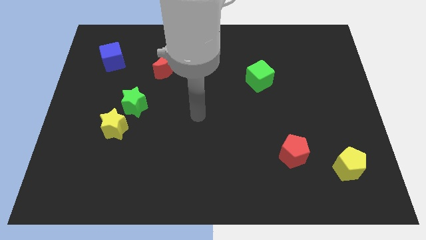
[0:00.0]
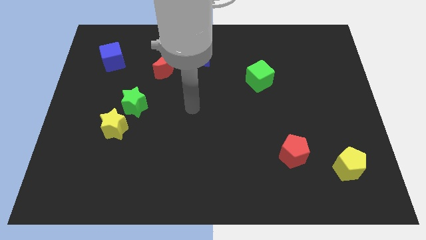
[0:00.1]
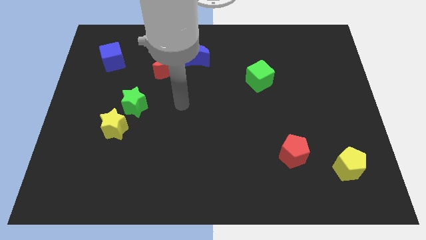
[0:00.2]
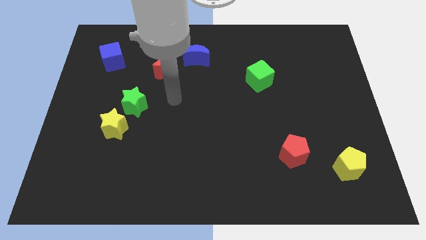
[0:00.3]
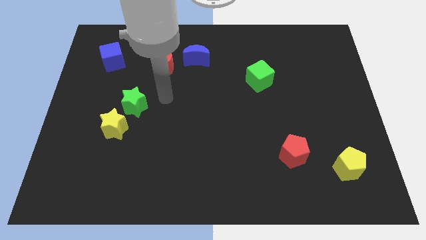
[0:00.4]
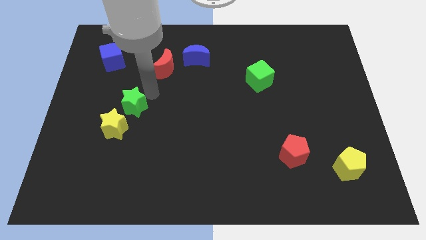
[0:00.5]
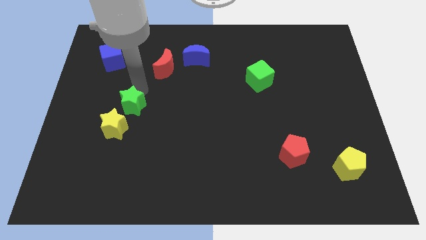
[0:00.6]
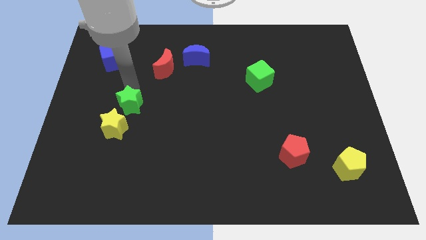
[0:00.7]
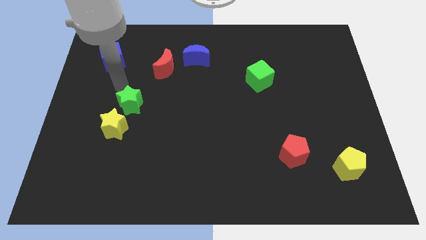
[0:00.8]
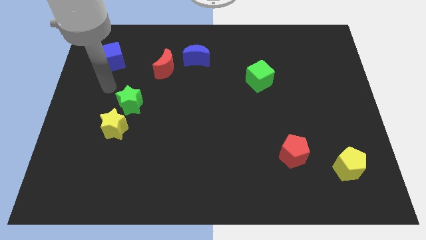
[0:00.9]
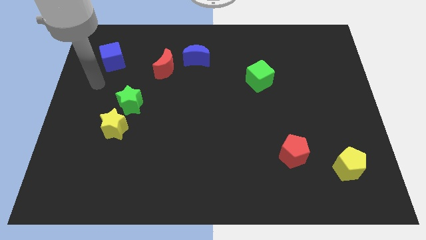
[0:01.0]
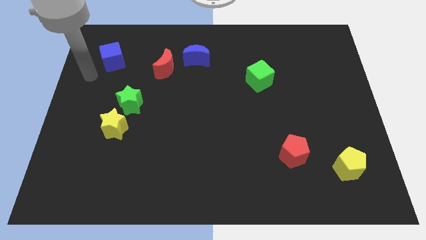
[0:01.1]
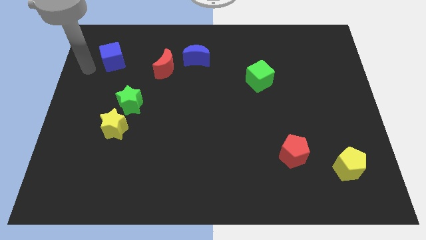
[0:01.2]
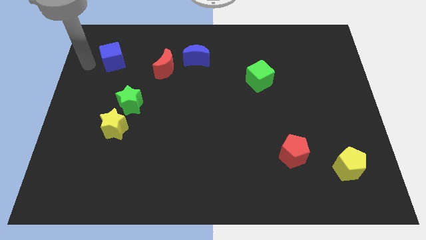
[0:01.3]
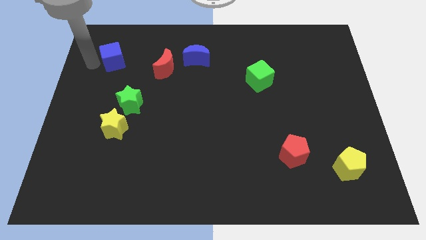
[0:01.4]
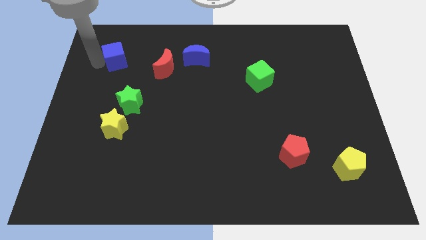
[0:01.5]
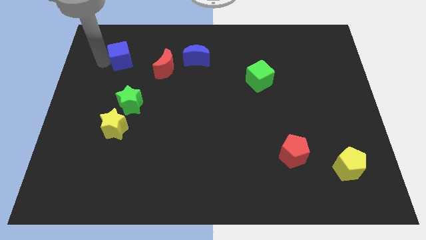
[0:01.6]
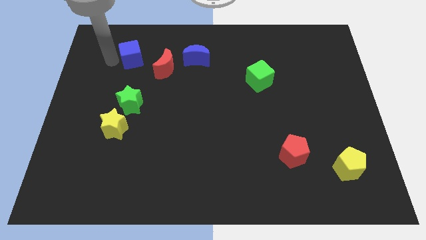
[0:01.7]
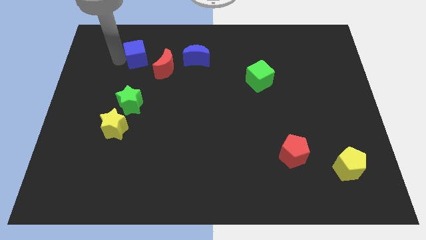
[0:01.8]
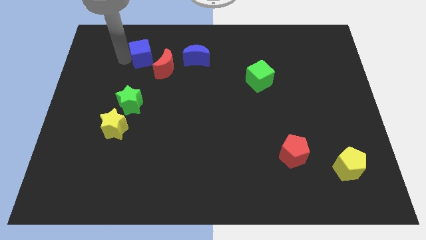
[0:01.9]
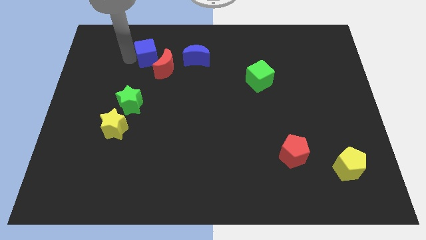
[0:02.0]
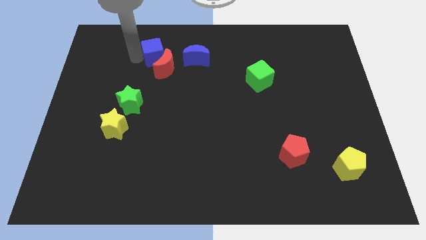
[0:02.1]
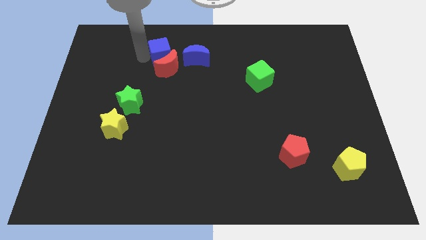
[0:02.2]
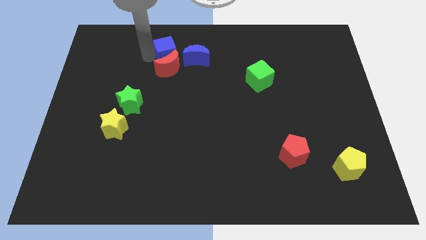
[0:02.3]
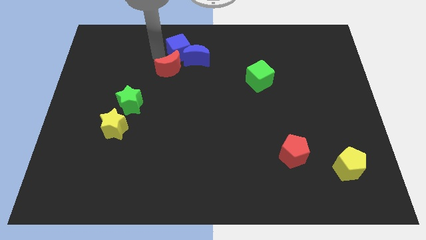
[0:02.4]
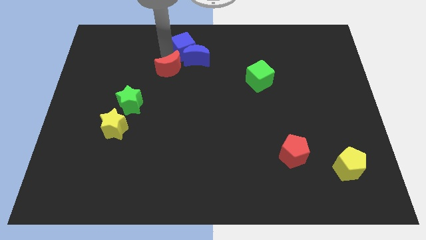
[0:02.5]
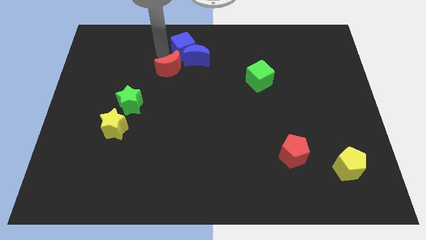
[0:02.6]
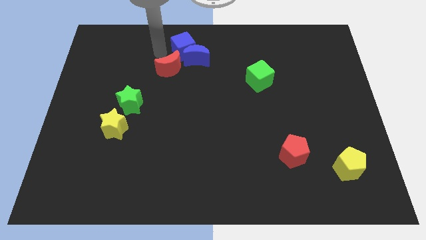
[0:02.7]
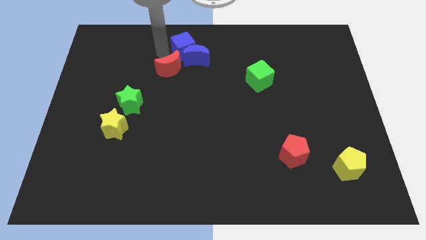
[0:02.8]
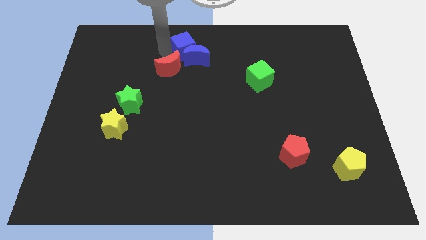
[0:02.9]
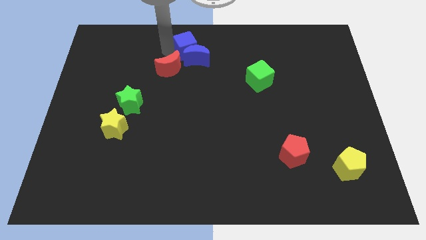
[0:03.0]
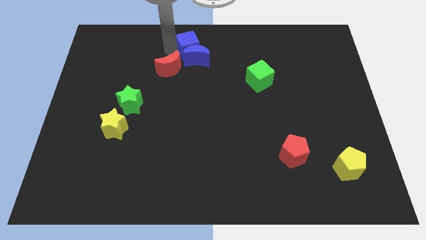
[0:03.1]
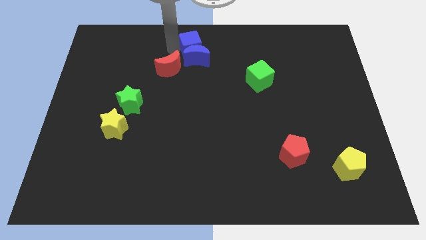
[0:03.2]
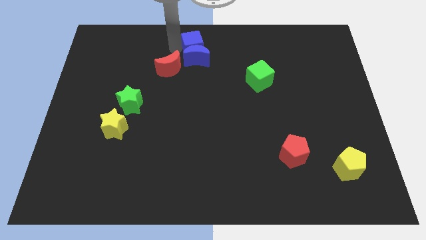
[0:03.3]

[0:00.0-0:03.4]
move the blue cube to the right

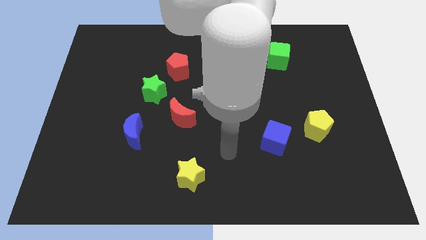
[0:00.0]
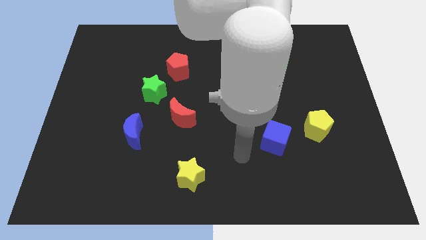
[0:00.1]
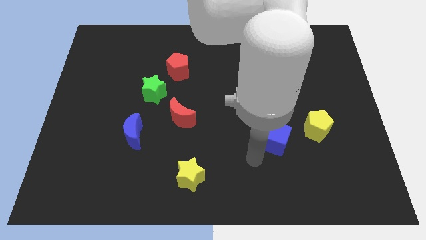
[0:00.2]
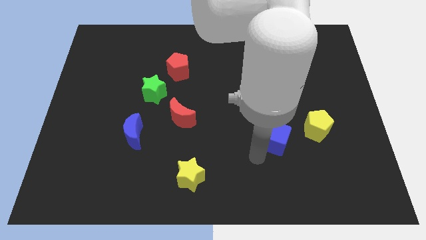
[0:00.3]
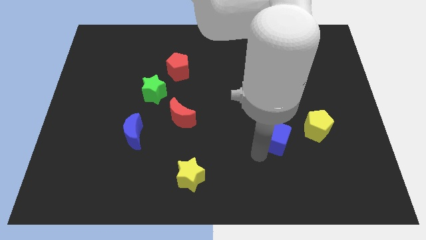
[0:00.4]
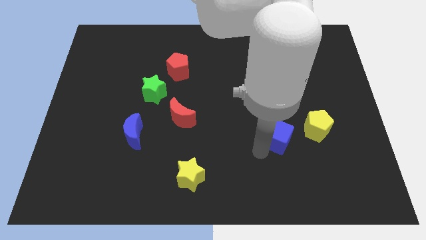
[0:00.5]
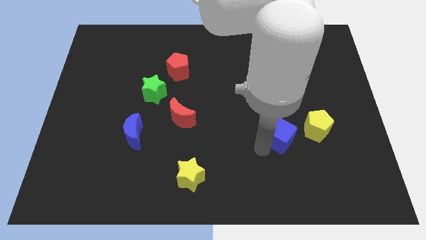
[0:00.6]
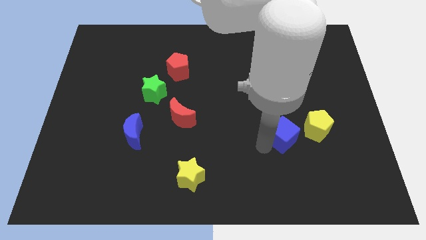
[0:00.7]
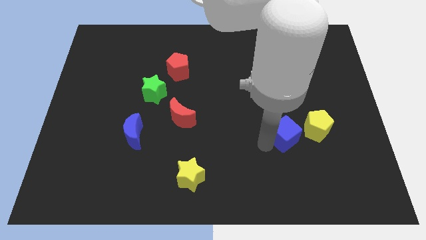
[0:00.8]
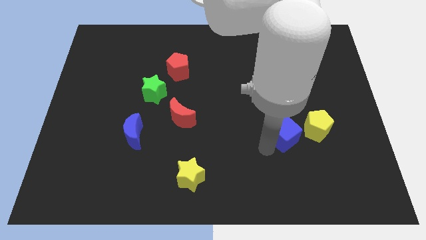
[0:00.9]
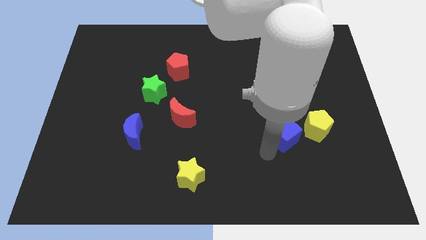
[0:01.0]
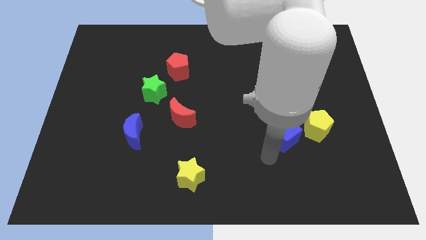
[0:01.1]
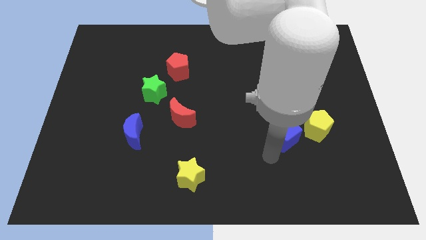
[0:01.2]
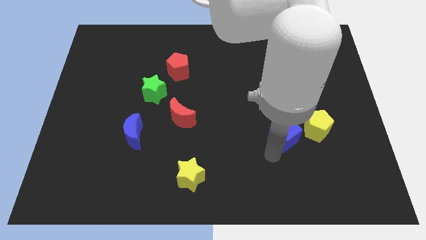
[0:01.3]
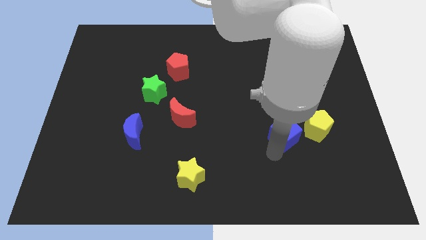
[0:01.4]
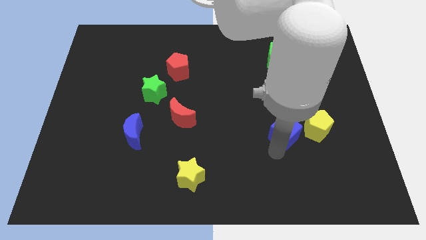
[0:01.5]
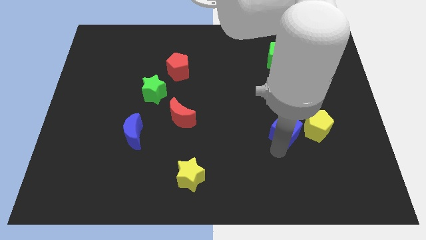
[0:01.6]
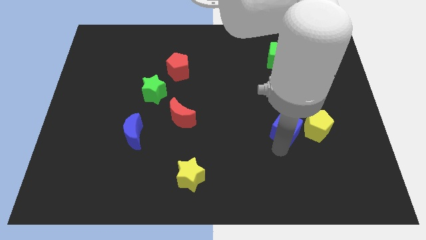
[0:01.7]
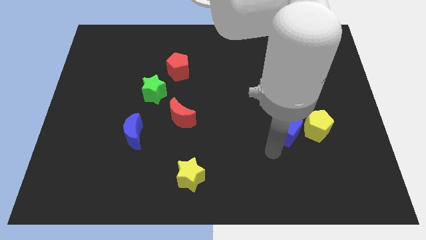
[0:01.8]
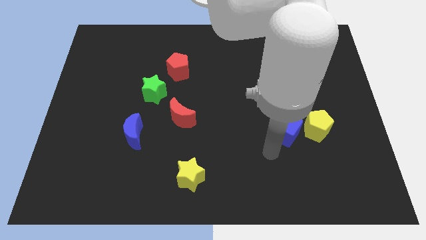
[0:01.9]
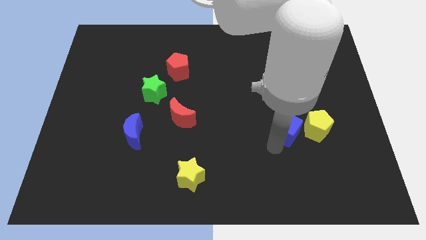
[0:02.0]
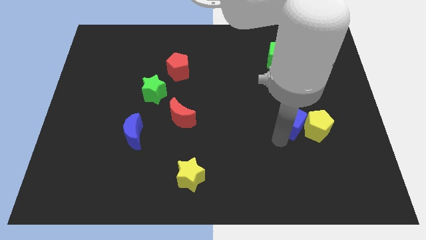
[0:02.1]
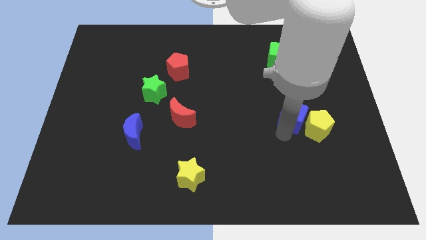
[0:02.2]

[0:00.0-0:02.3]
move the blue cube a little upwards and to the right

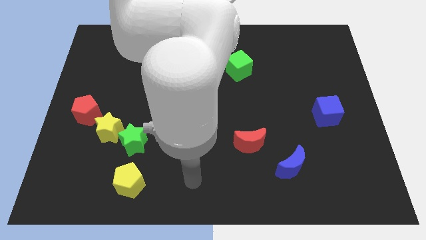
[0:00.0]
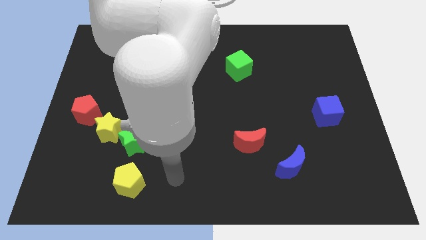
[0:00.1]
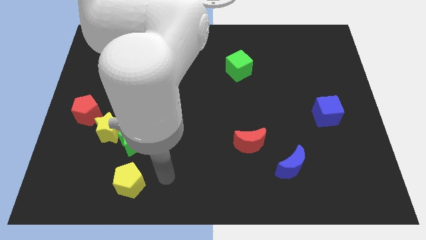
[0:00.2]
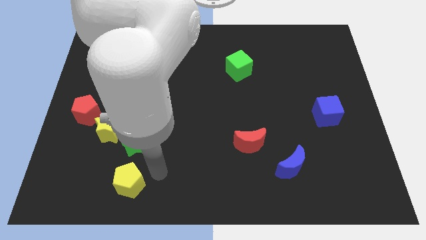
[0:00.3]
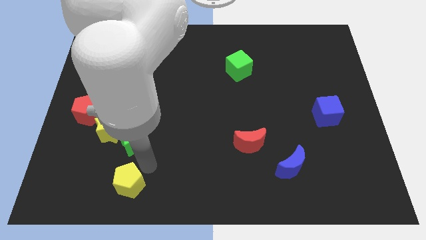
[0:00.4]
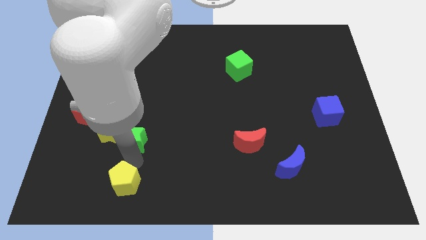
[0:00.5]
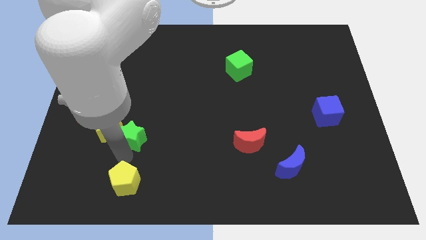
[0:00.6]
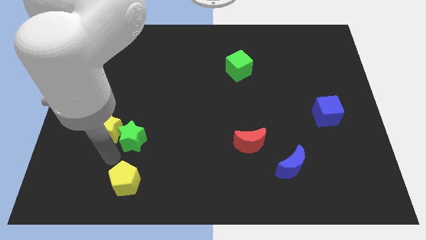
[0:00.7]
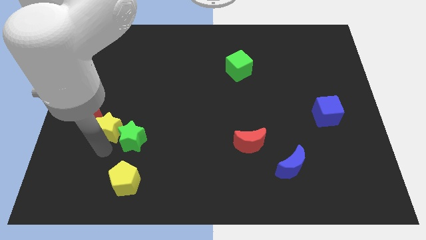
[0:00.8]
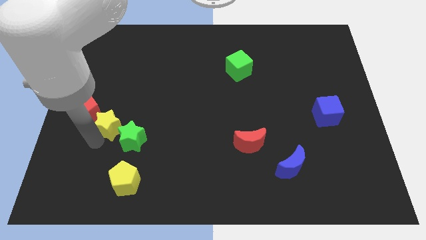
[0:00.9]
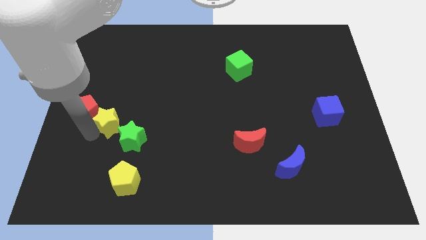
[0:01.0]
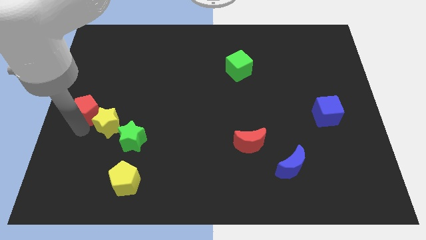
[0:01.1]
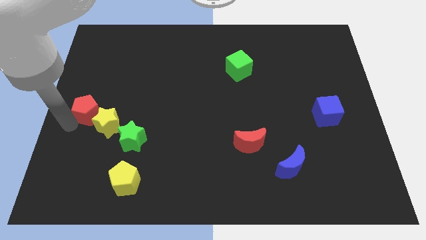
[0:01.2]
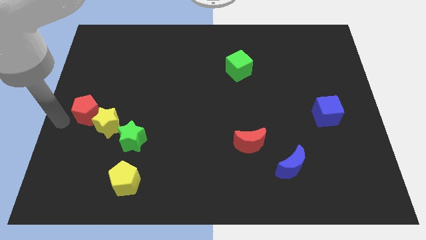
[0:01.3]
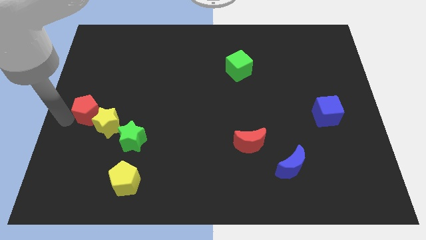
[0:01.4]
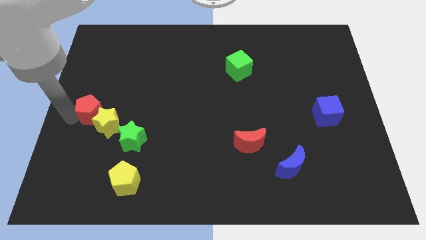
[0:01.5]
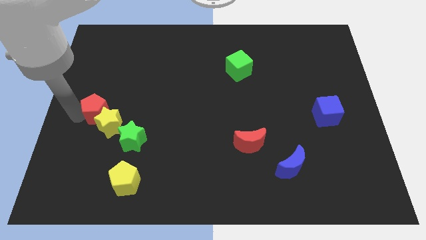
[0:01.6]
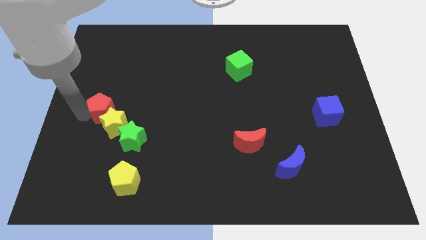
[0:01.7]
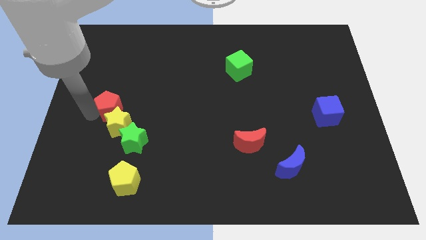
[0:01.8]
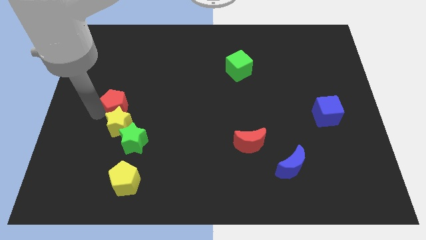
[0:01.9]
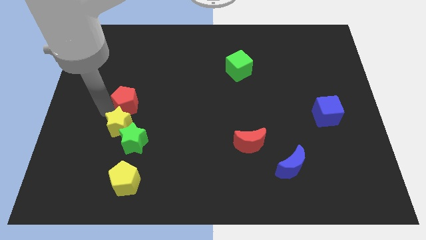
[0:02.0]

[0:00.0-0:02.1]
push the red pentagon up and to the right diagonally a bit

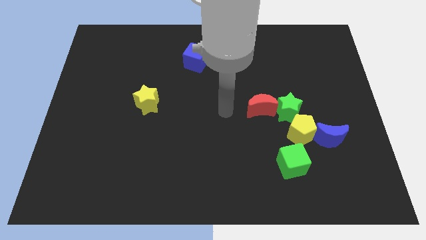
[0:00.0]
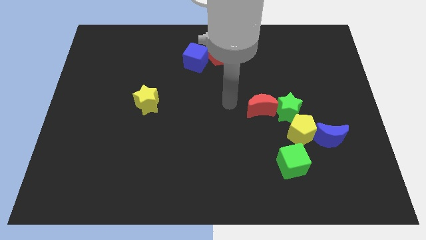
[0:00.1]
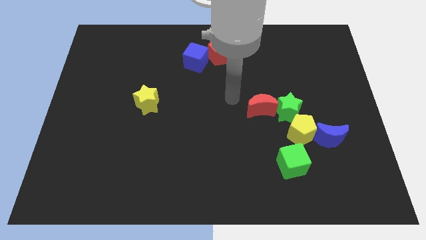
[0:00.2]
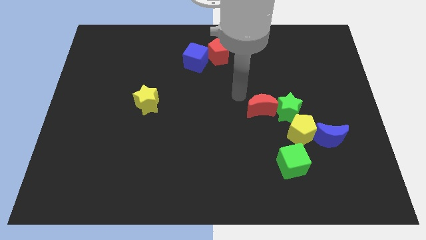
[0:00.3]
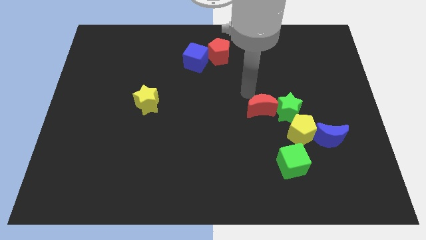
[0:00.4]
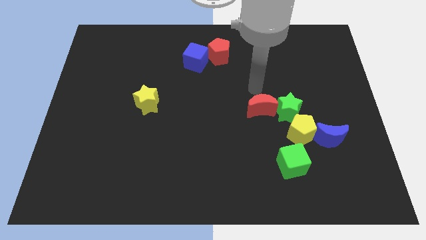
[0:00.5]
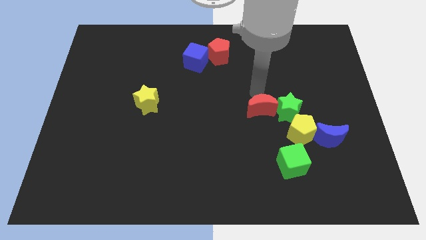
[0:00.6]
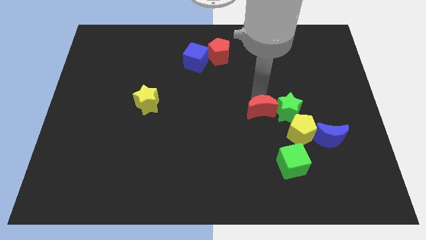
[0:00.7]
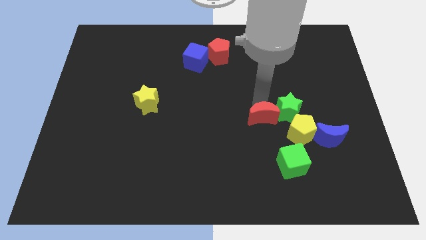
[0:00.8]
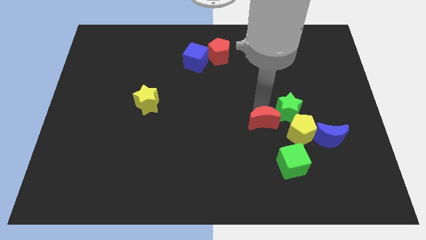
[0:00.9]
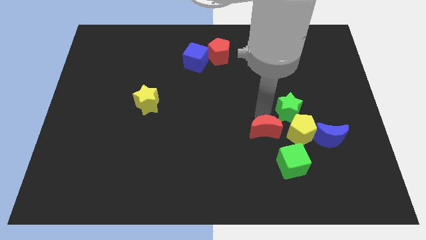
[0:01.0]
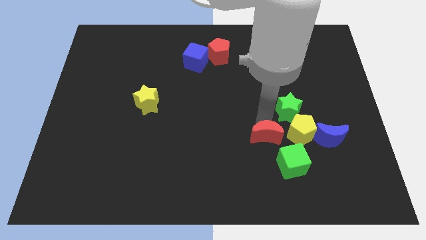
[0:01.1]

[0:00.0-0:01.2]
slide the red moon down slightly
